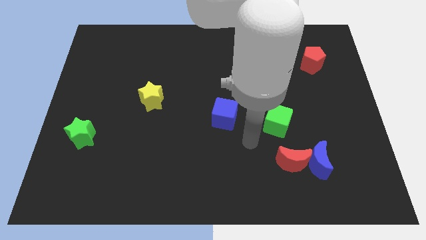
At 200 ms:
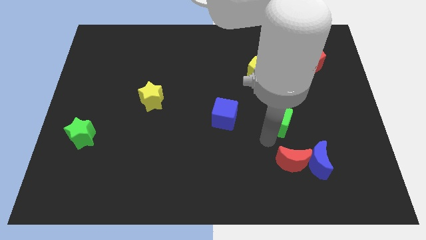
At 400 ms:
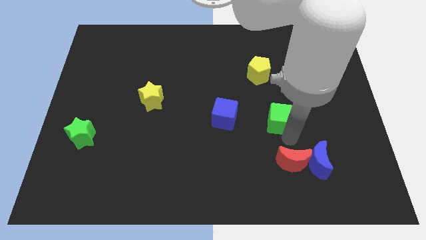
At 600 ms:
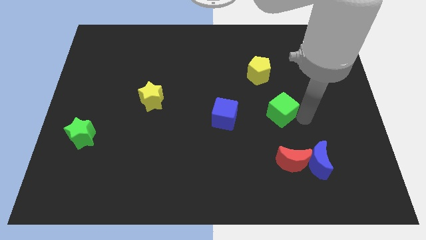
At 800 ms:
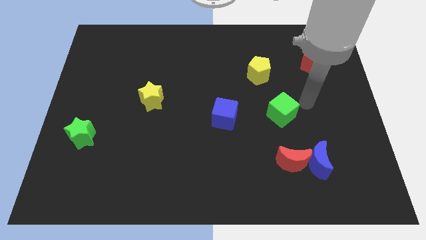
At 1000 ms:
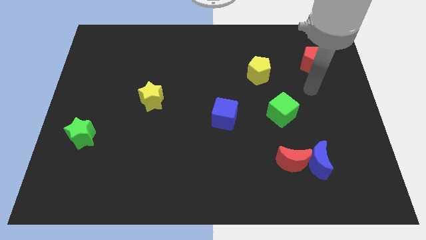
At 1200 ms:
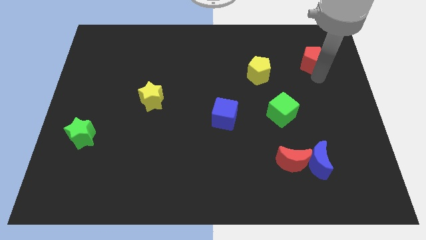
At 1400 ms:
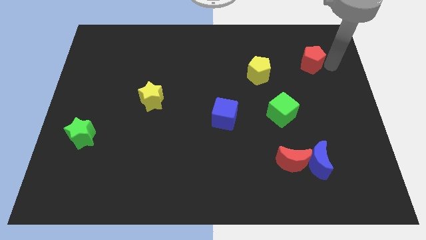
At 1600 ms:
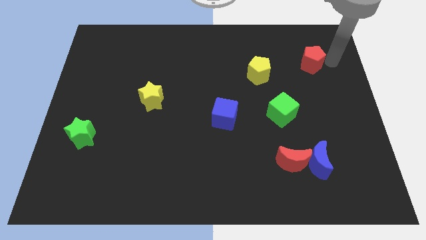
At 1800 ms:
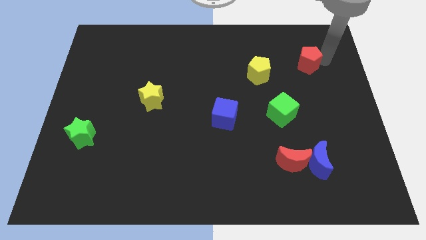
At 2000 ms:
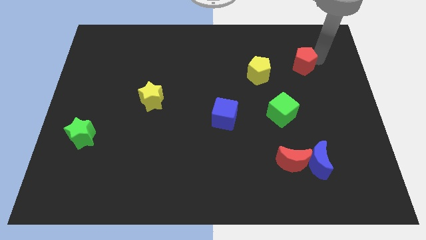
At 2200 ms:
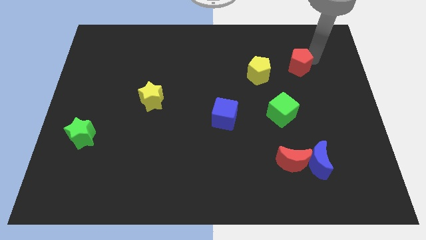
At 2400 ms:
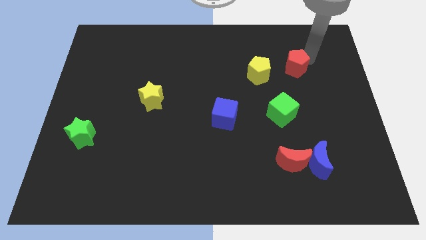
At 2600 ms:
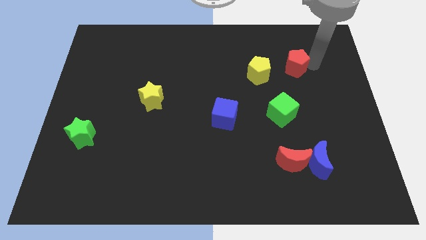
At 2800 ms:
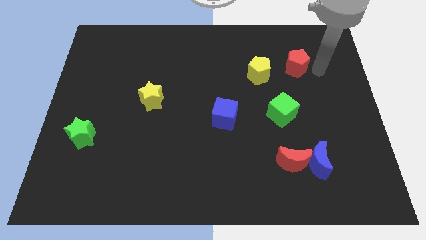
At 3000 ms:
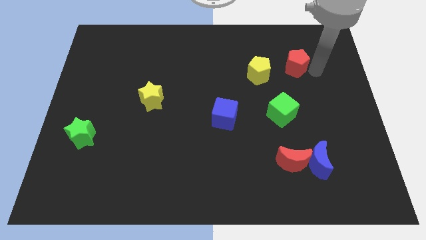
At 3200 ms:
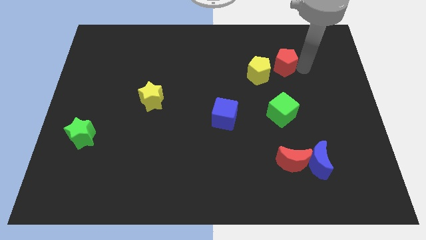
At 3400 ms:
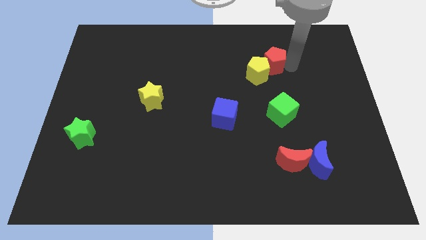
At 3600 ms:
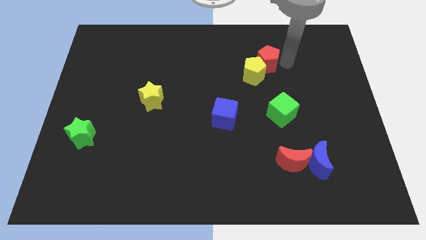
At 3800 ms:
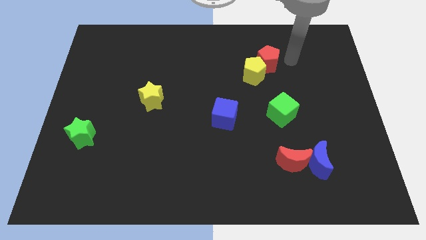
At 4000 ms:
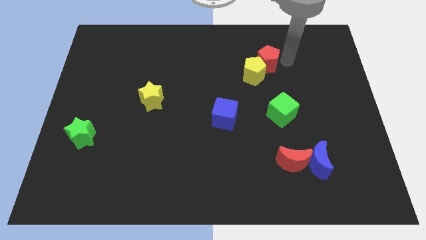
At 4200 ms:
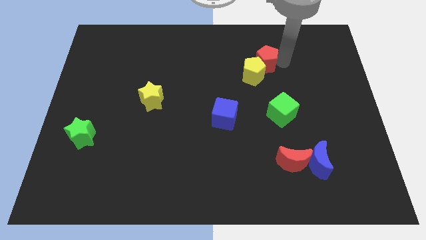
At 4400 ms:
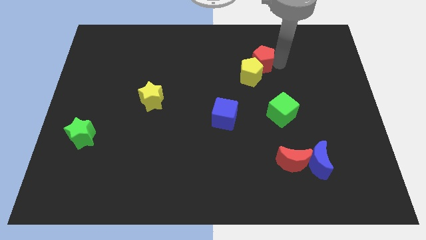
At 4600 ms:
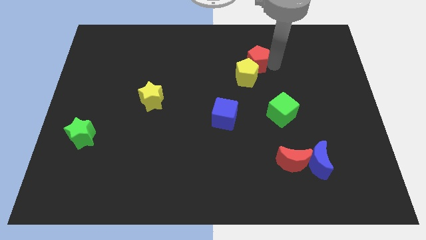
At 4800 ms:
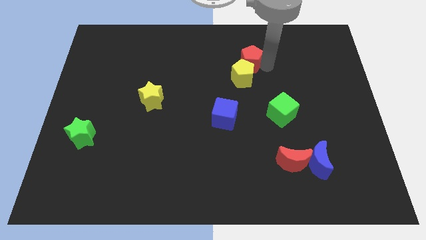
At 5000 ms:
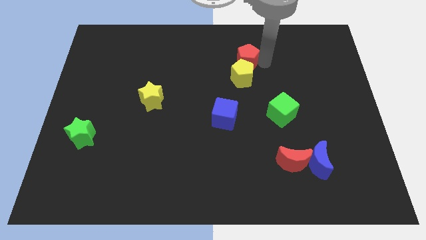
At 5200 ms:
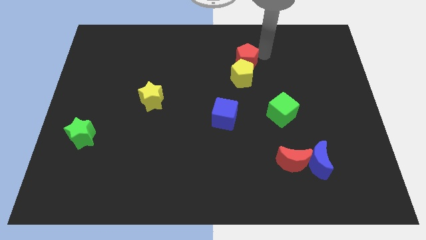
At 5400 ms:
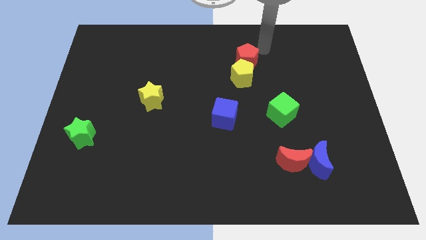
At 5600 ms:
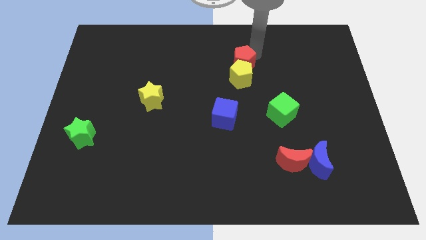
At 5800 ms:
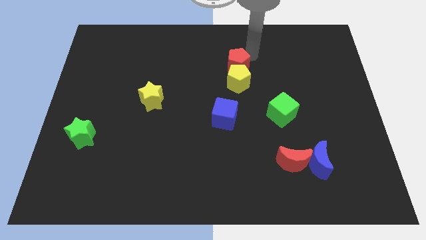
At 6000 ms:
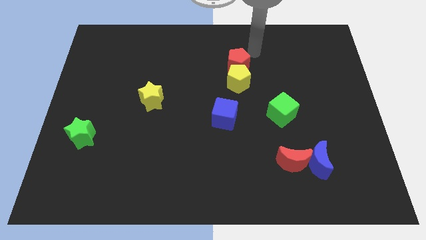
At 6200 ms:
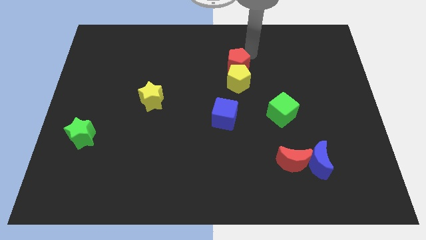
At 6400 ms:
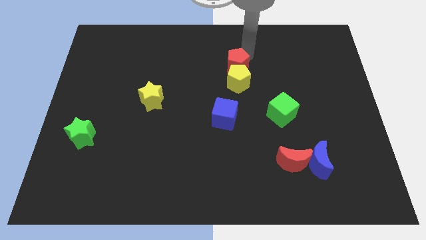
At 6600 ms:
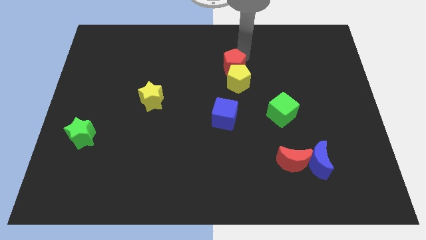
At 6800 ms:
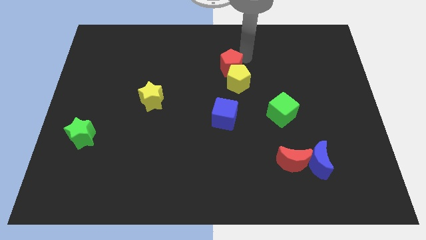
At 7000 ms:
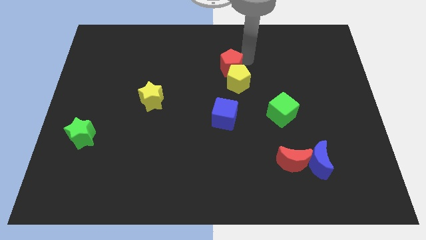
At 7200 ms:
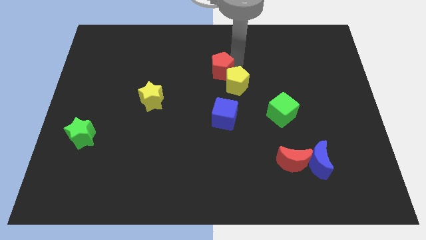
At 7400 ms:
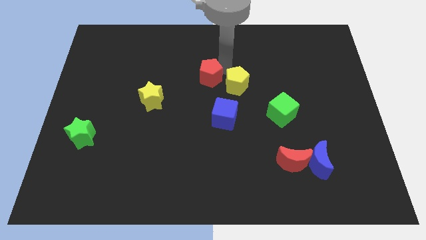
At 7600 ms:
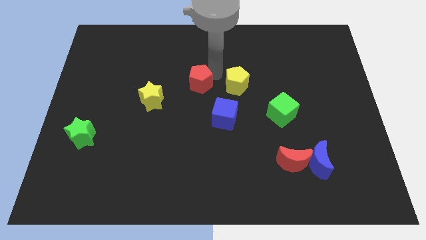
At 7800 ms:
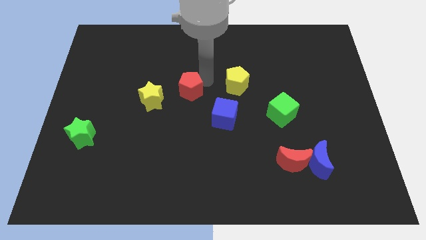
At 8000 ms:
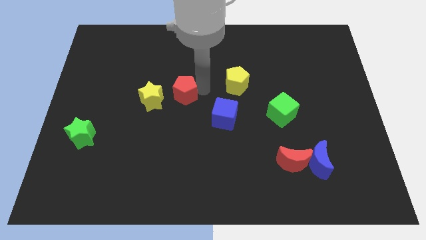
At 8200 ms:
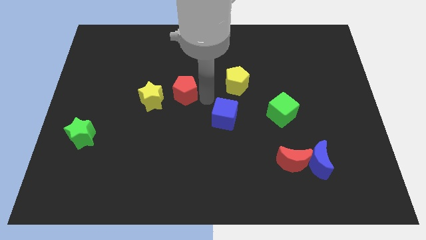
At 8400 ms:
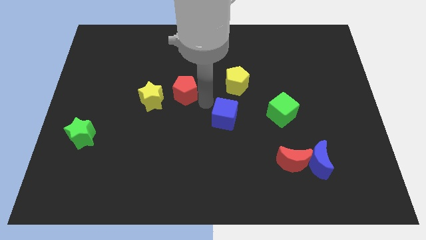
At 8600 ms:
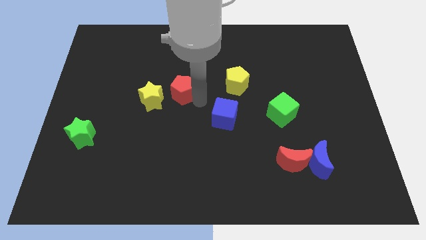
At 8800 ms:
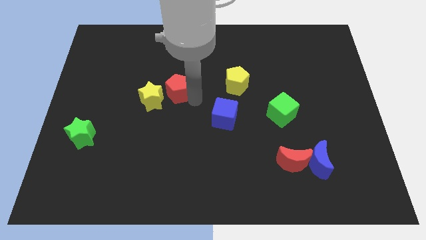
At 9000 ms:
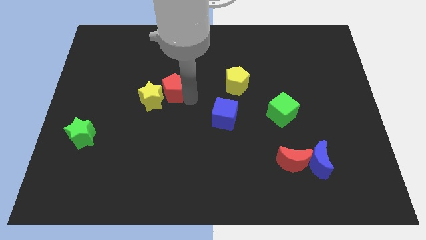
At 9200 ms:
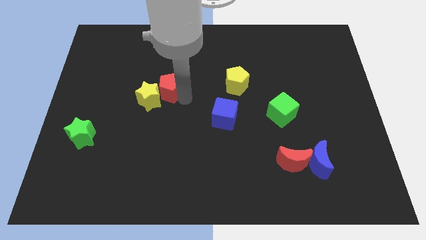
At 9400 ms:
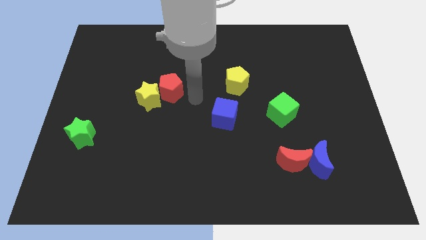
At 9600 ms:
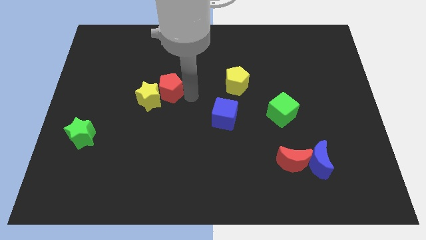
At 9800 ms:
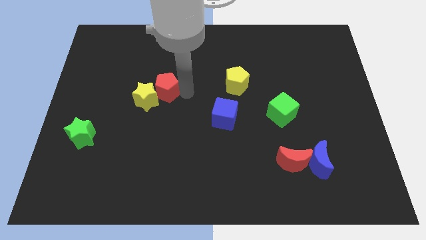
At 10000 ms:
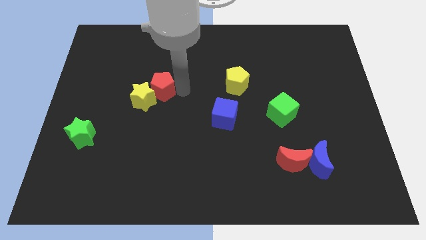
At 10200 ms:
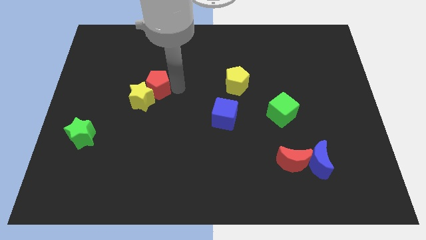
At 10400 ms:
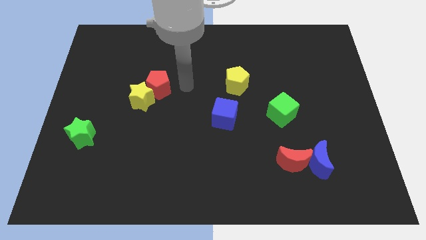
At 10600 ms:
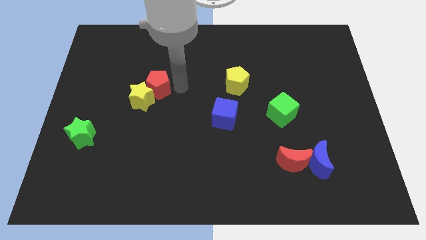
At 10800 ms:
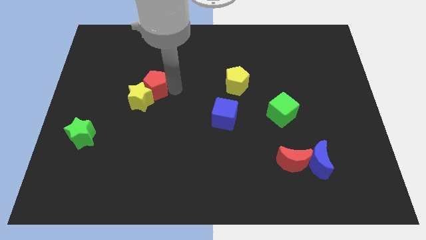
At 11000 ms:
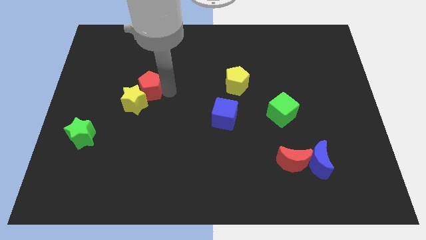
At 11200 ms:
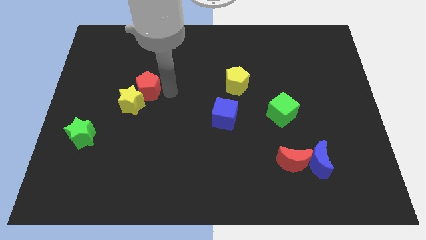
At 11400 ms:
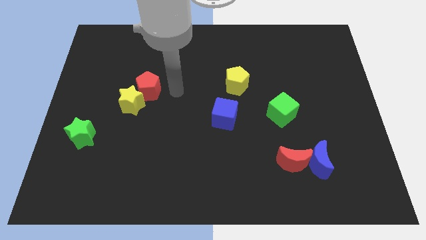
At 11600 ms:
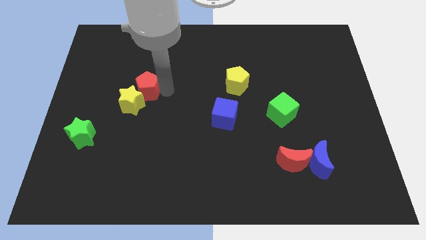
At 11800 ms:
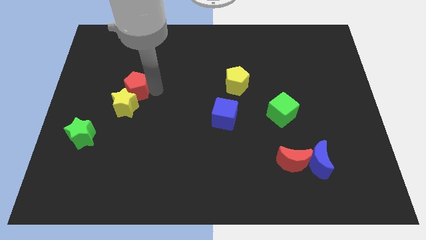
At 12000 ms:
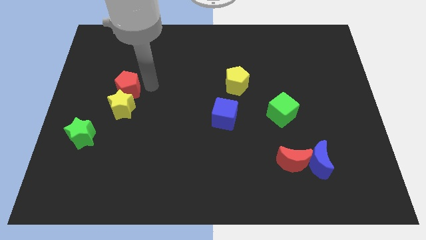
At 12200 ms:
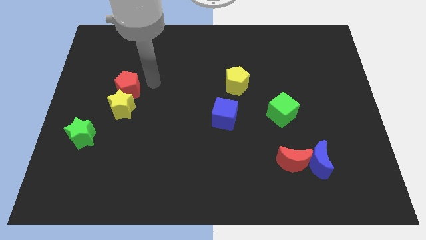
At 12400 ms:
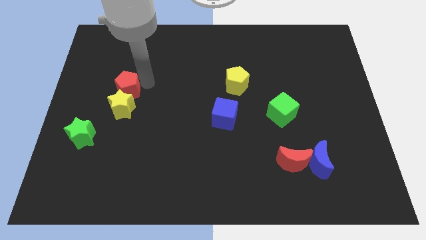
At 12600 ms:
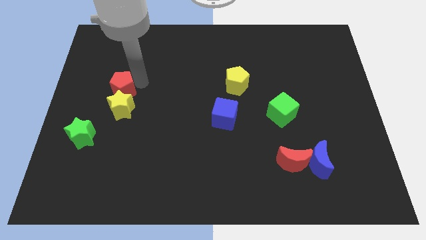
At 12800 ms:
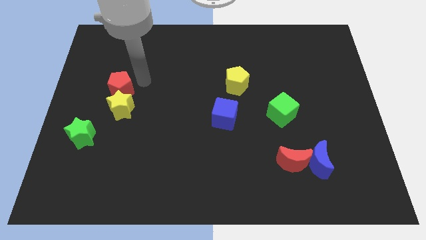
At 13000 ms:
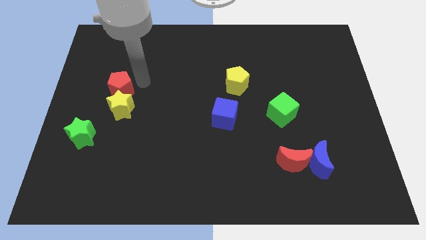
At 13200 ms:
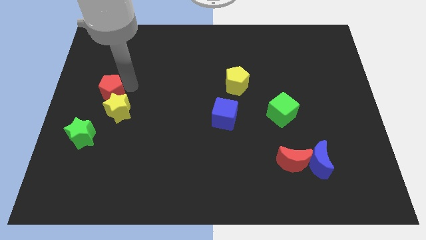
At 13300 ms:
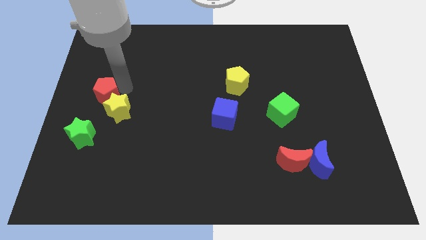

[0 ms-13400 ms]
push the red pentagon to the left side

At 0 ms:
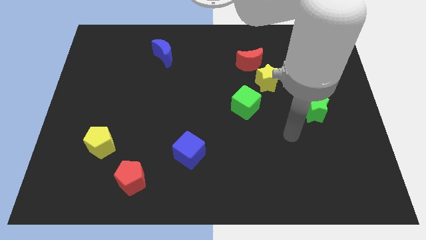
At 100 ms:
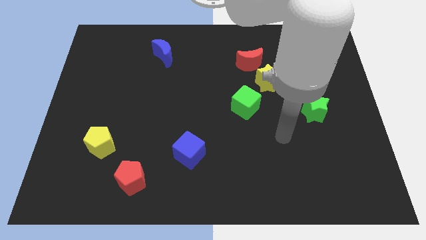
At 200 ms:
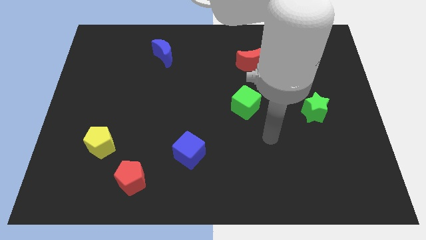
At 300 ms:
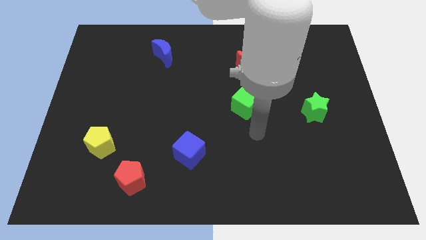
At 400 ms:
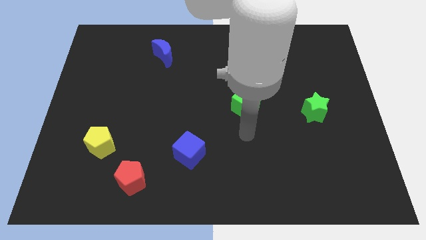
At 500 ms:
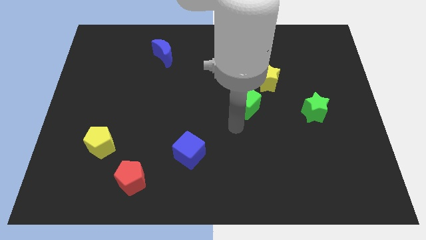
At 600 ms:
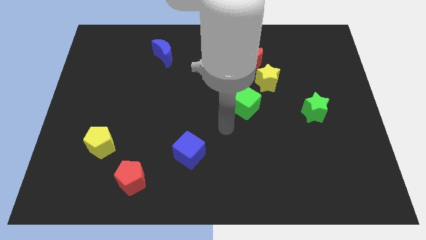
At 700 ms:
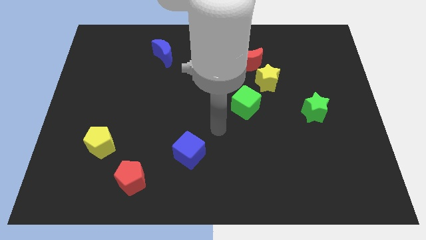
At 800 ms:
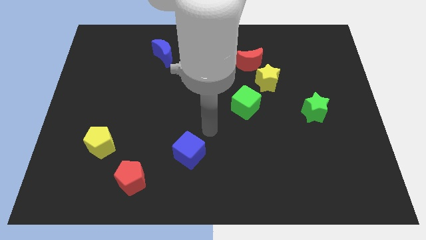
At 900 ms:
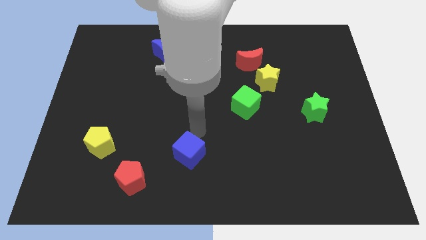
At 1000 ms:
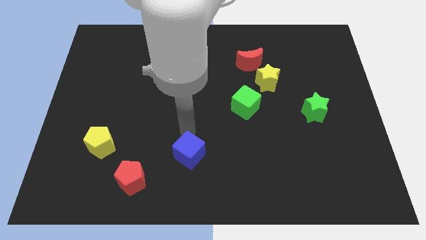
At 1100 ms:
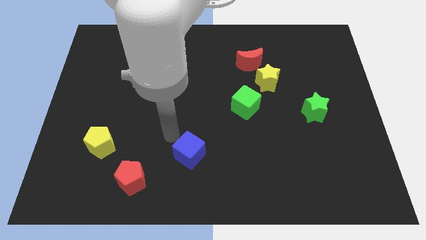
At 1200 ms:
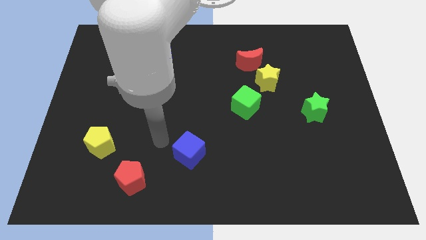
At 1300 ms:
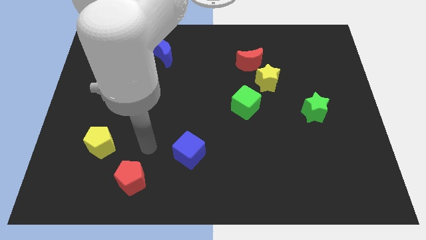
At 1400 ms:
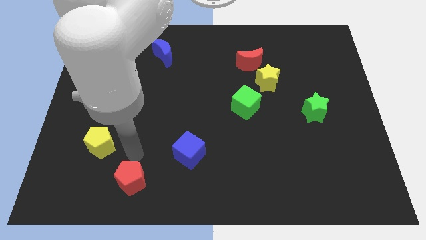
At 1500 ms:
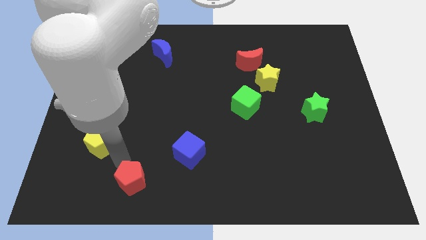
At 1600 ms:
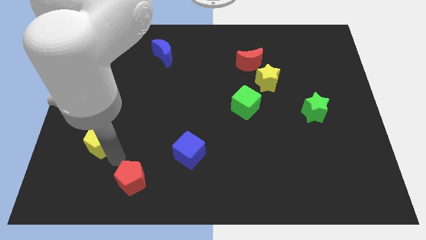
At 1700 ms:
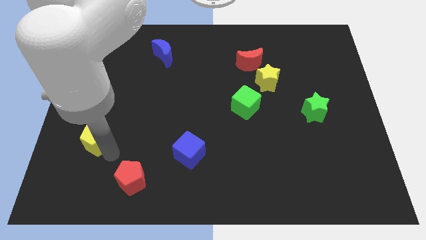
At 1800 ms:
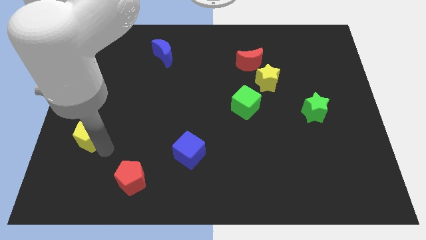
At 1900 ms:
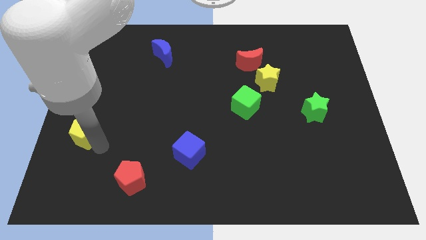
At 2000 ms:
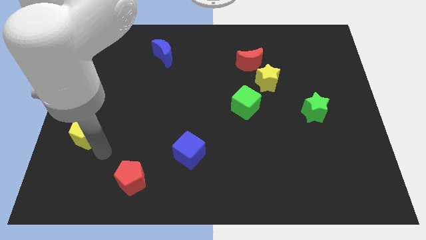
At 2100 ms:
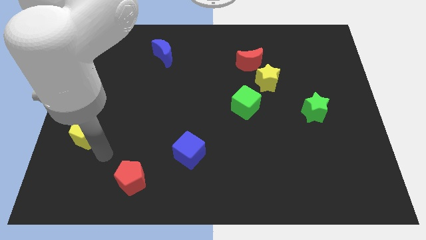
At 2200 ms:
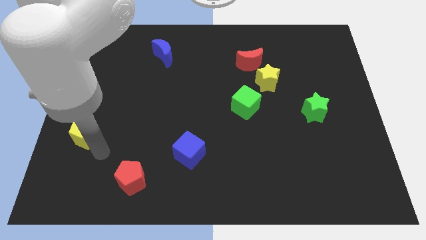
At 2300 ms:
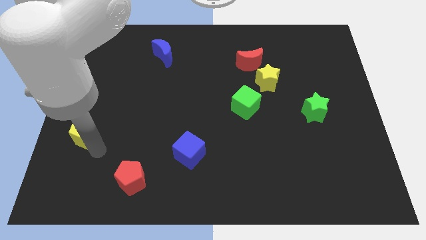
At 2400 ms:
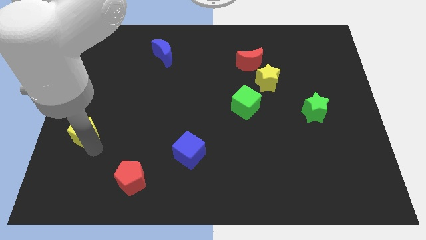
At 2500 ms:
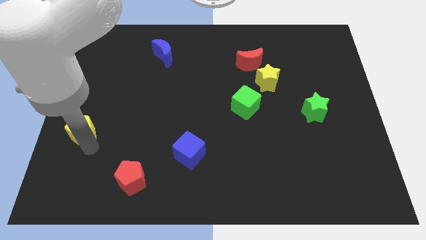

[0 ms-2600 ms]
put the yellow pentagon to the left side of the board
